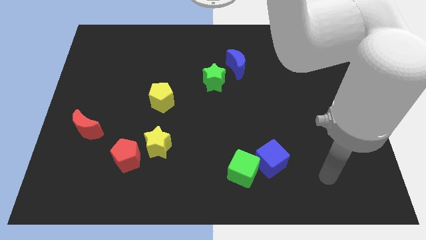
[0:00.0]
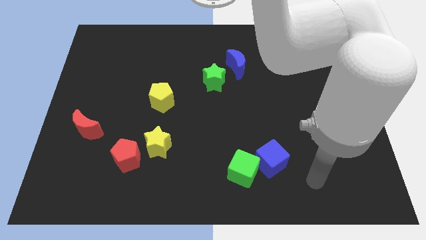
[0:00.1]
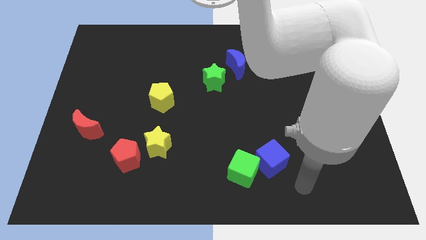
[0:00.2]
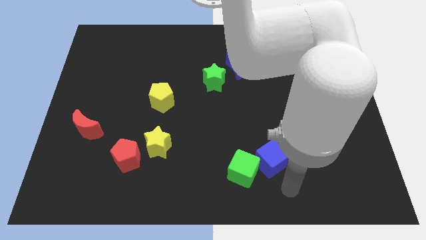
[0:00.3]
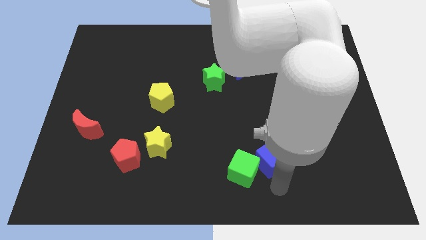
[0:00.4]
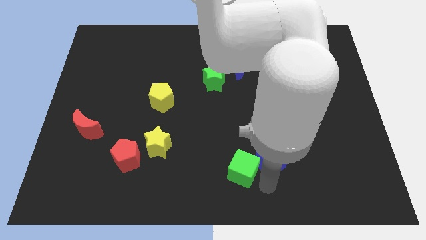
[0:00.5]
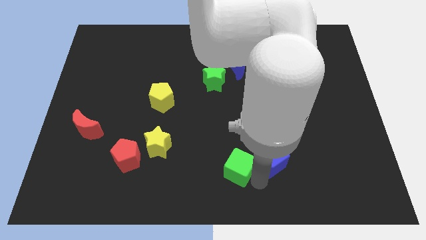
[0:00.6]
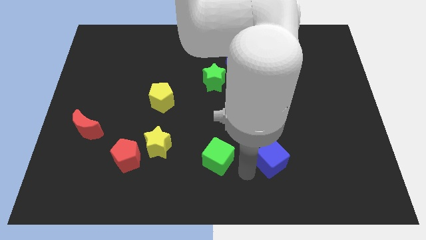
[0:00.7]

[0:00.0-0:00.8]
pull the blue cube apart from the green cube

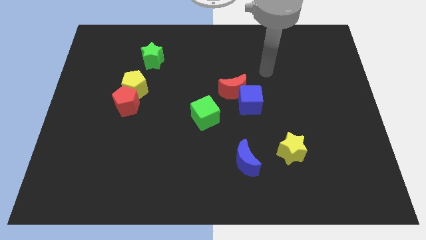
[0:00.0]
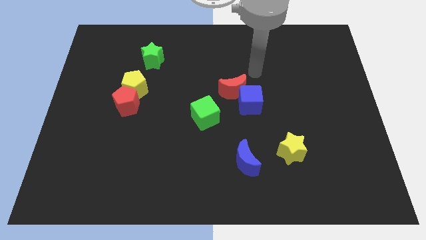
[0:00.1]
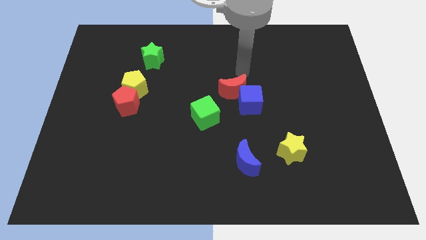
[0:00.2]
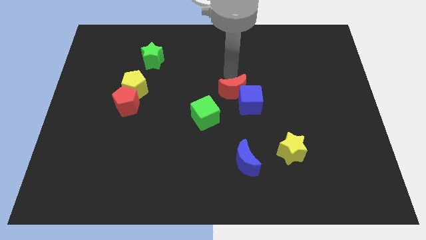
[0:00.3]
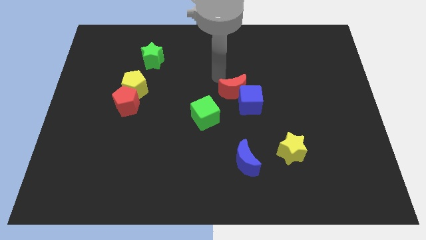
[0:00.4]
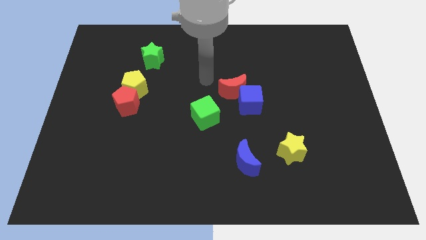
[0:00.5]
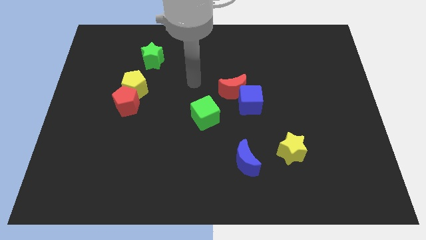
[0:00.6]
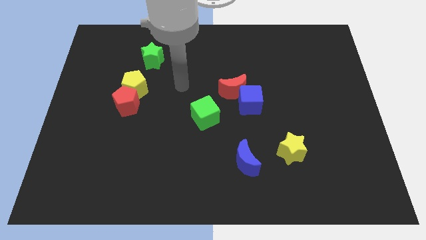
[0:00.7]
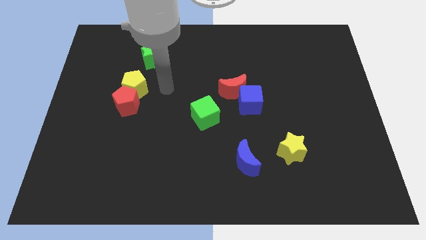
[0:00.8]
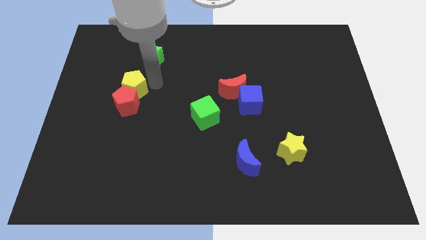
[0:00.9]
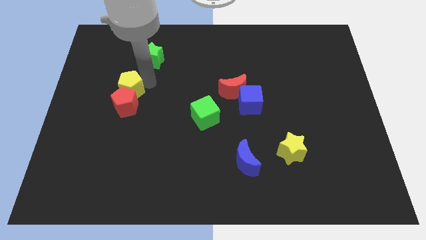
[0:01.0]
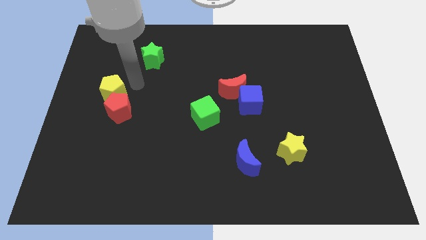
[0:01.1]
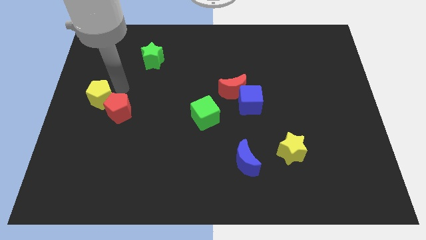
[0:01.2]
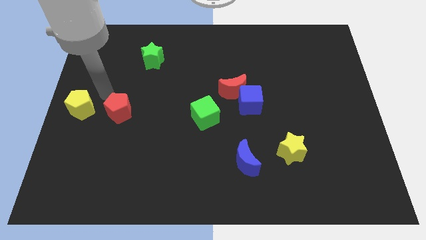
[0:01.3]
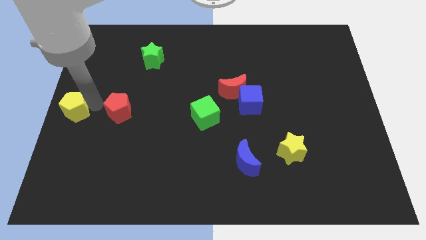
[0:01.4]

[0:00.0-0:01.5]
separate the red pentagon from the yellow pentagon

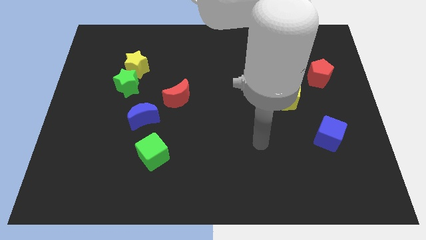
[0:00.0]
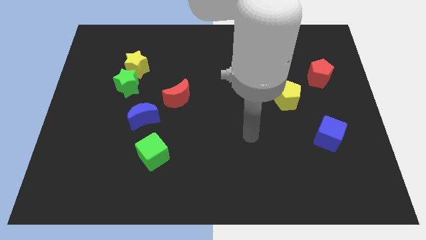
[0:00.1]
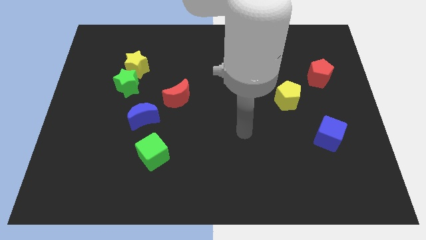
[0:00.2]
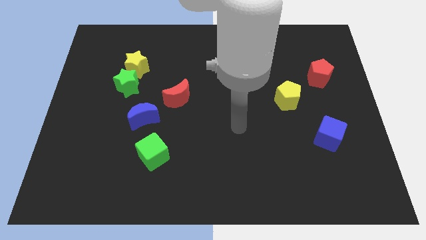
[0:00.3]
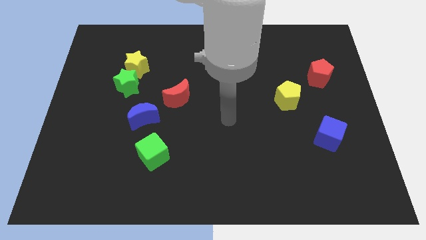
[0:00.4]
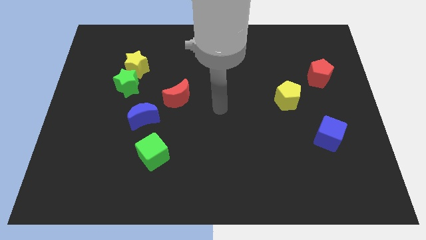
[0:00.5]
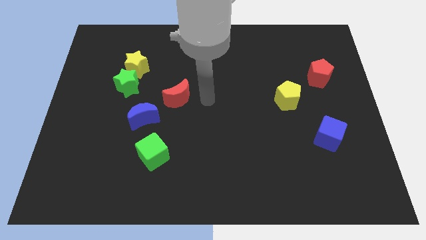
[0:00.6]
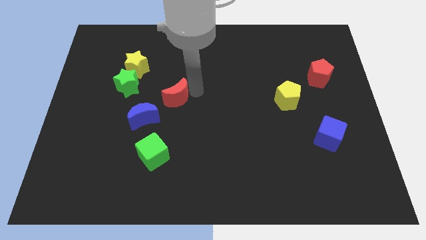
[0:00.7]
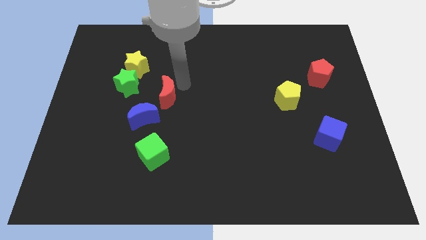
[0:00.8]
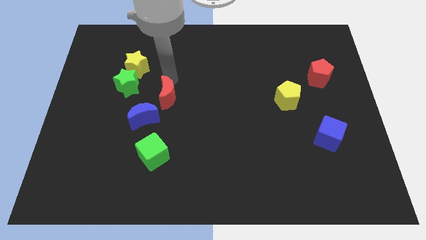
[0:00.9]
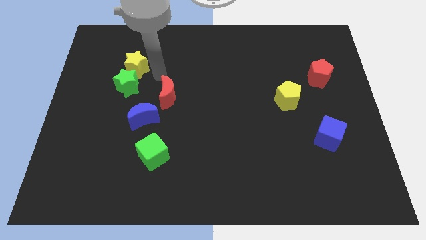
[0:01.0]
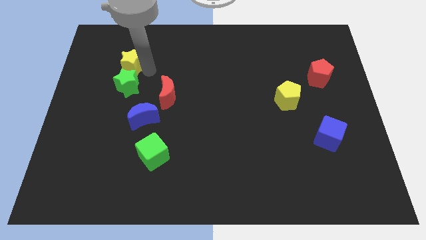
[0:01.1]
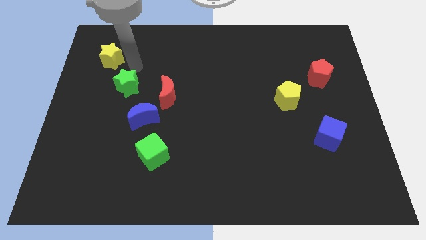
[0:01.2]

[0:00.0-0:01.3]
separate the green star from the yellow star

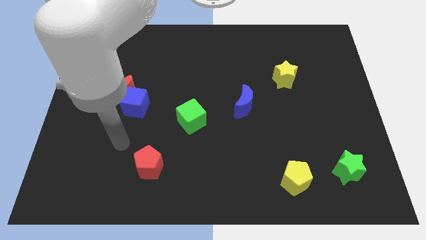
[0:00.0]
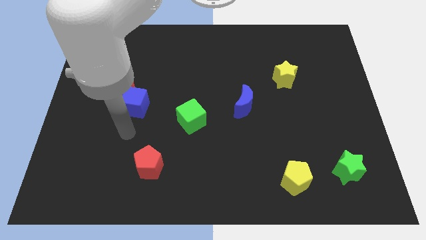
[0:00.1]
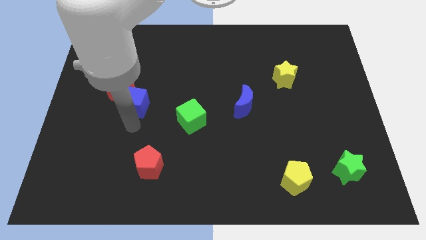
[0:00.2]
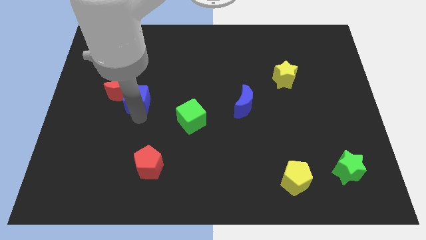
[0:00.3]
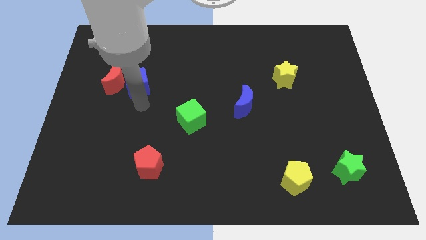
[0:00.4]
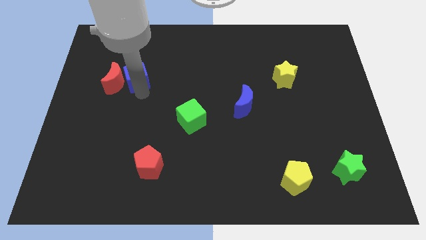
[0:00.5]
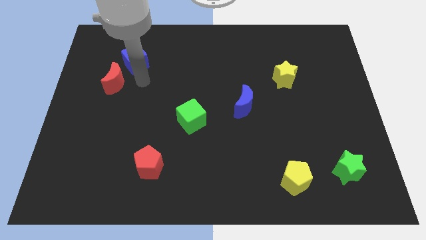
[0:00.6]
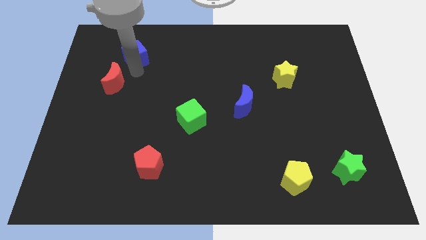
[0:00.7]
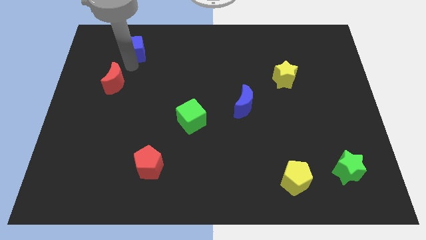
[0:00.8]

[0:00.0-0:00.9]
move the red moon away from the blue cube

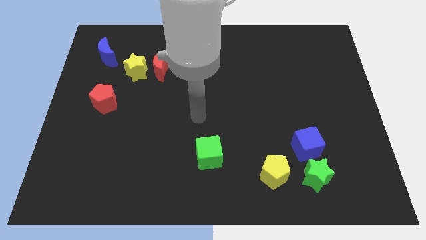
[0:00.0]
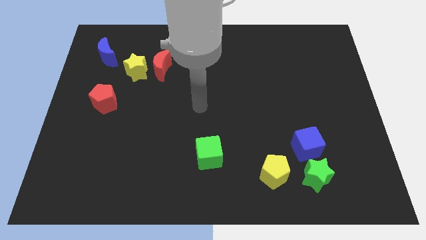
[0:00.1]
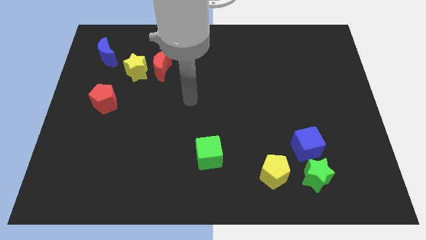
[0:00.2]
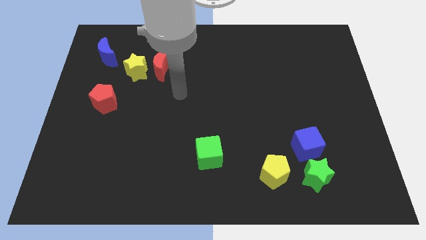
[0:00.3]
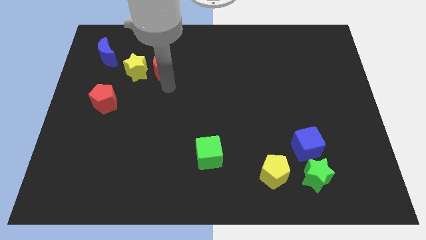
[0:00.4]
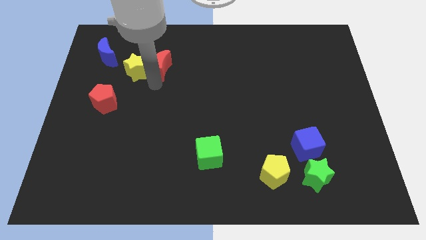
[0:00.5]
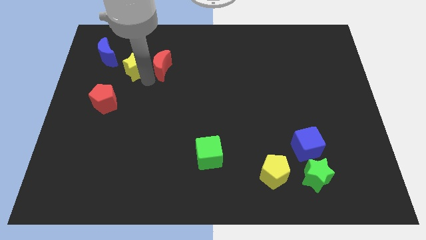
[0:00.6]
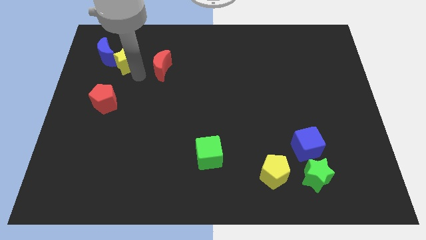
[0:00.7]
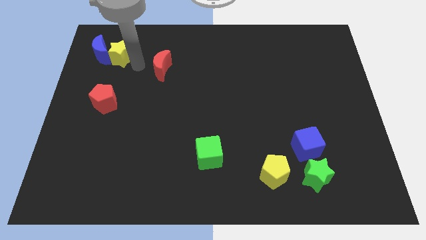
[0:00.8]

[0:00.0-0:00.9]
separate the red moon from the yellow star

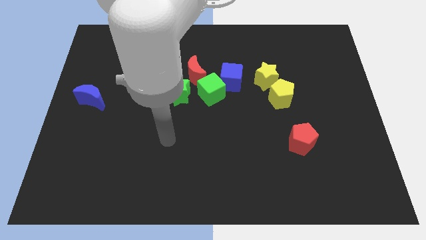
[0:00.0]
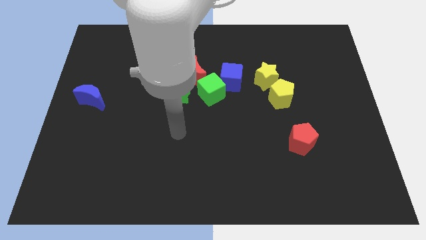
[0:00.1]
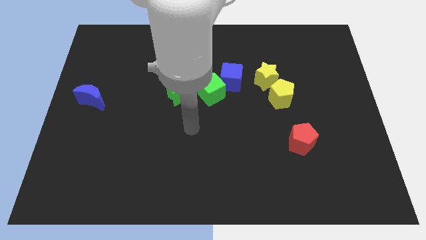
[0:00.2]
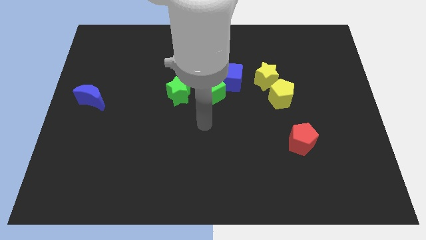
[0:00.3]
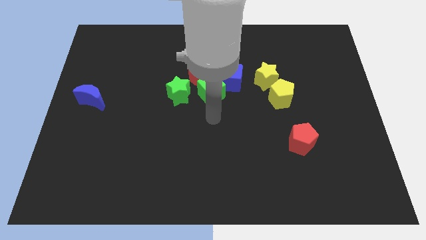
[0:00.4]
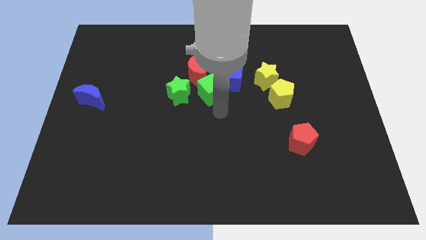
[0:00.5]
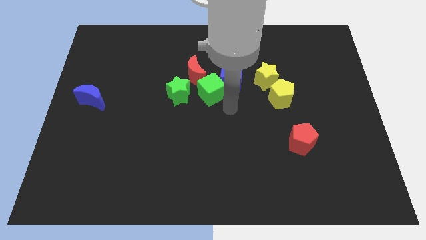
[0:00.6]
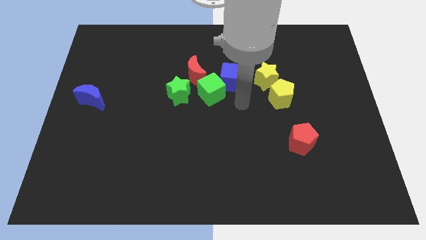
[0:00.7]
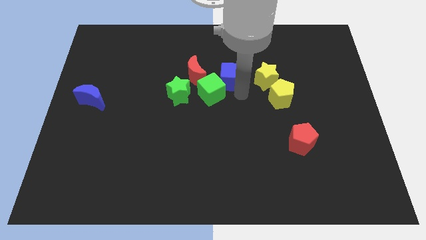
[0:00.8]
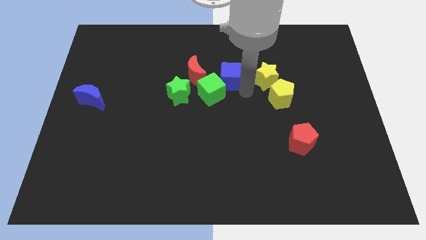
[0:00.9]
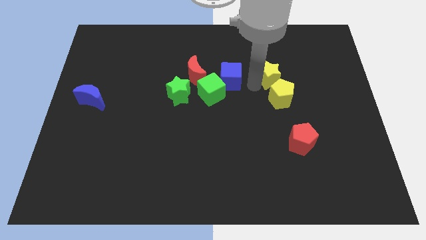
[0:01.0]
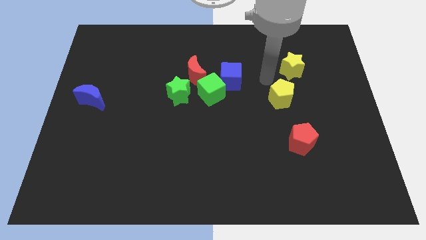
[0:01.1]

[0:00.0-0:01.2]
move the yellow pentagon away from the yellow star

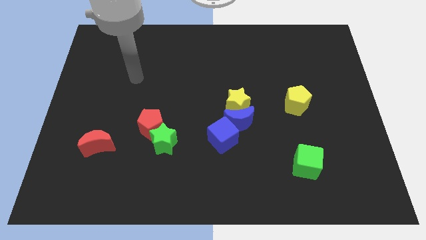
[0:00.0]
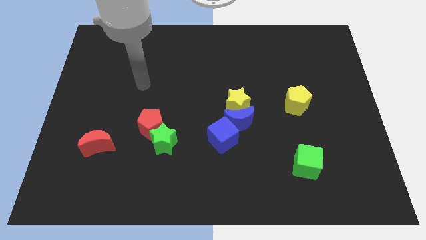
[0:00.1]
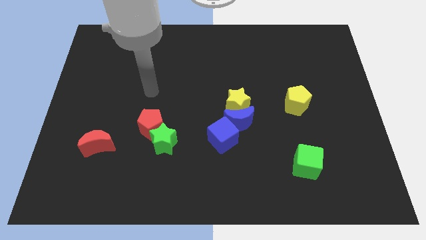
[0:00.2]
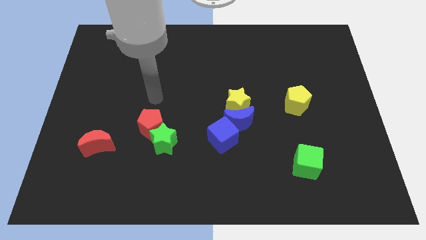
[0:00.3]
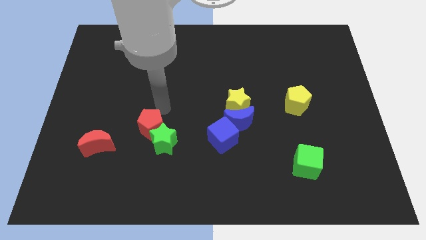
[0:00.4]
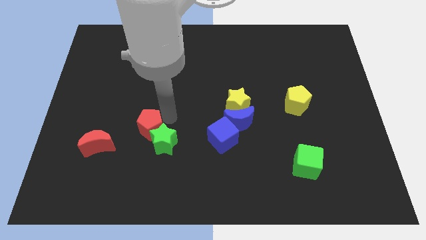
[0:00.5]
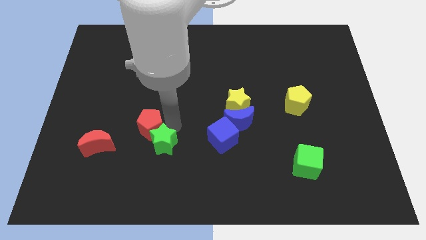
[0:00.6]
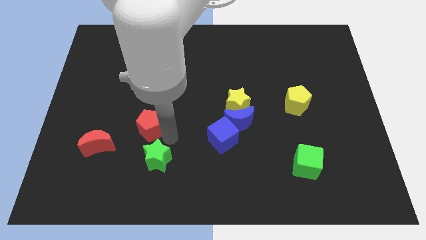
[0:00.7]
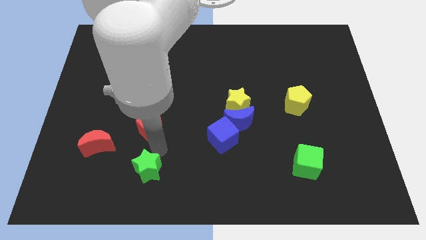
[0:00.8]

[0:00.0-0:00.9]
move the red pentagon away from the green star

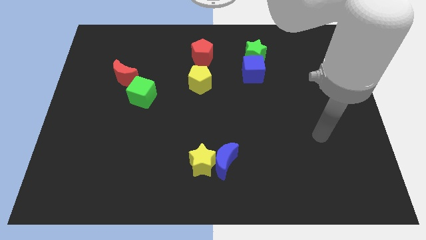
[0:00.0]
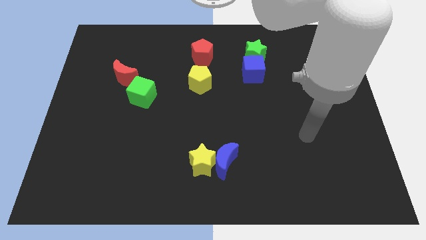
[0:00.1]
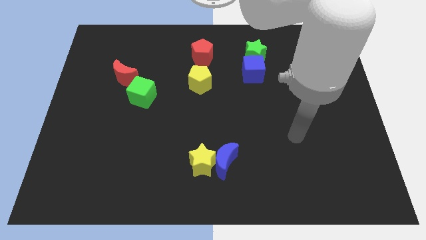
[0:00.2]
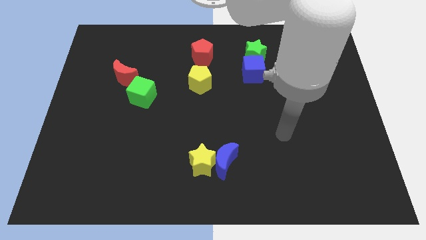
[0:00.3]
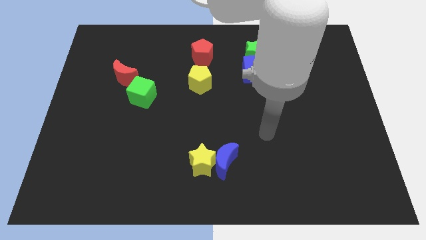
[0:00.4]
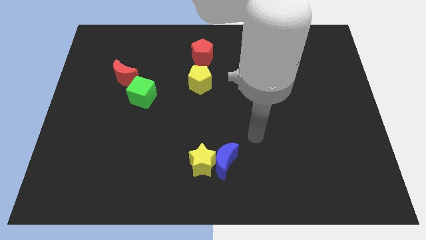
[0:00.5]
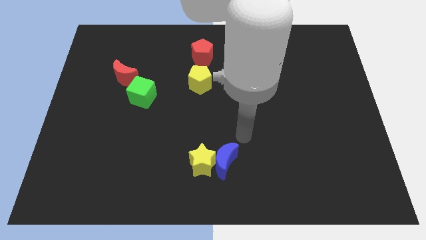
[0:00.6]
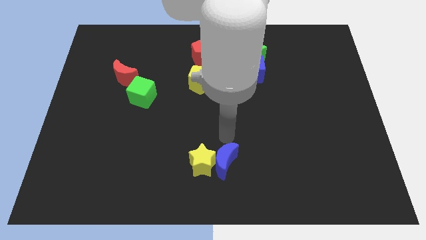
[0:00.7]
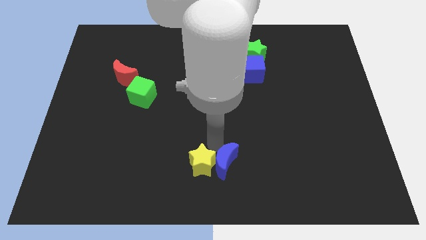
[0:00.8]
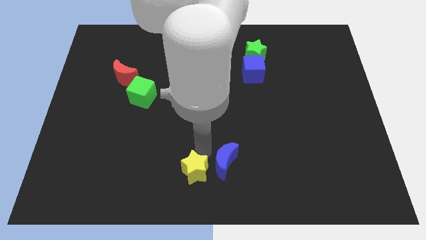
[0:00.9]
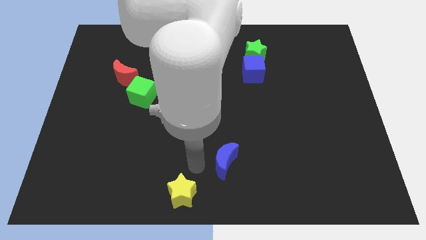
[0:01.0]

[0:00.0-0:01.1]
pull the blue moon apart from the yellow star

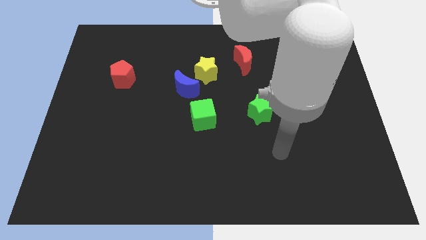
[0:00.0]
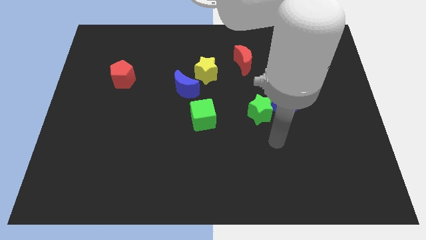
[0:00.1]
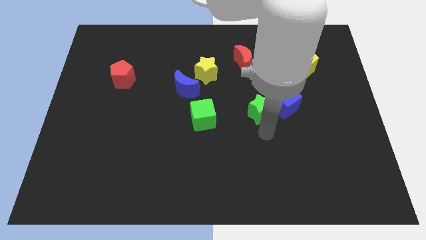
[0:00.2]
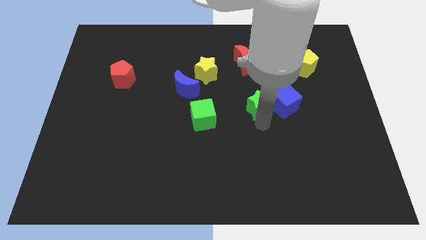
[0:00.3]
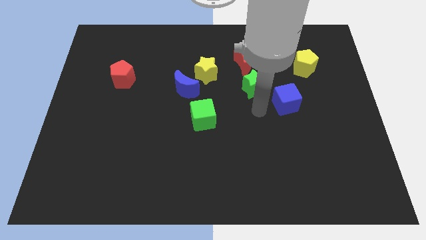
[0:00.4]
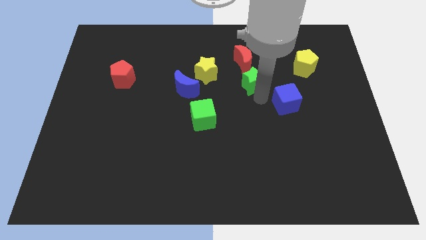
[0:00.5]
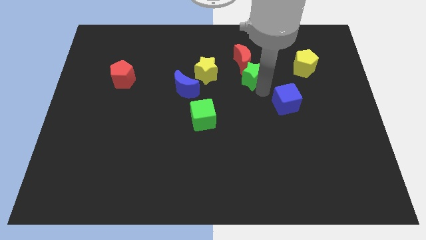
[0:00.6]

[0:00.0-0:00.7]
move the blue cube away from the green star
